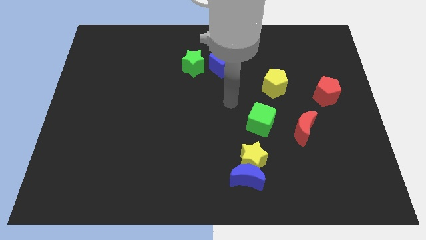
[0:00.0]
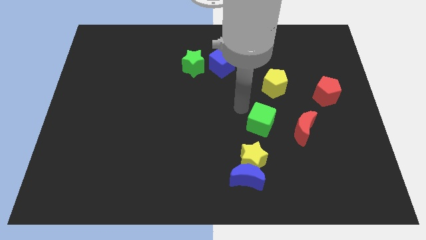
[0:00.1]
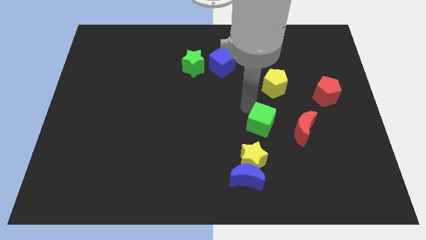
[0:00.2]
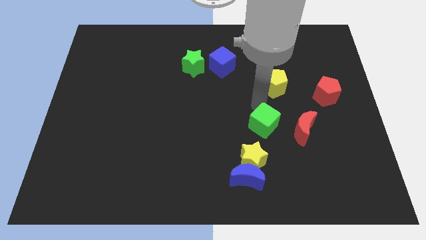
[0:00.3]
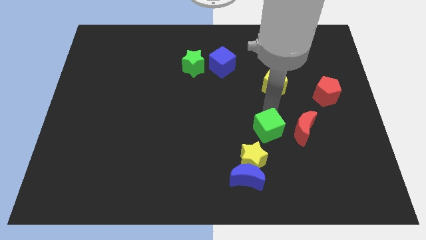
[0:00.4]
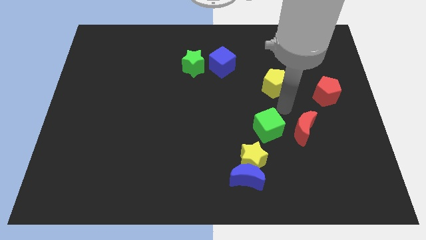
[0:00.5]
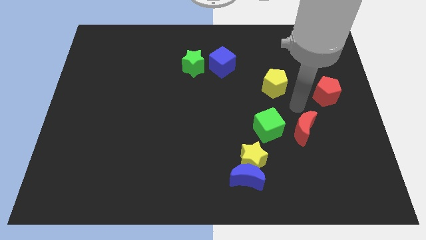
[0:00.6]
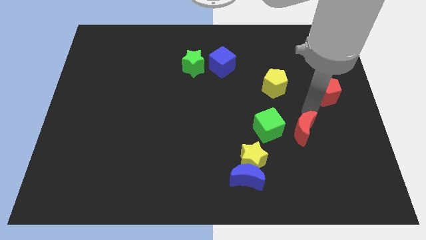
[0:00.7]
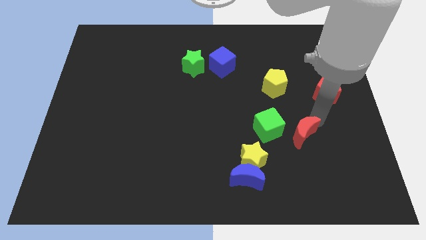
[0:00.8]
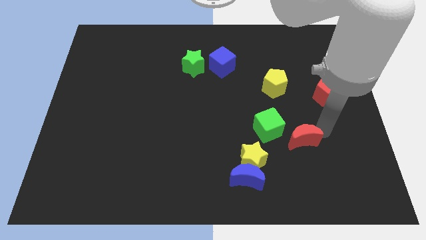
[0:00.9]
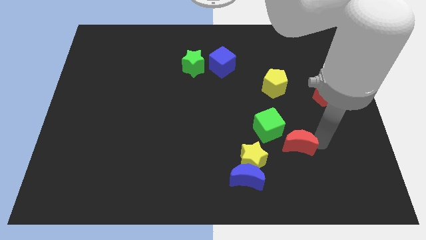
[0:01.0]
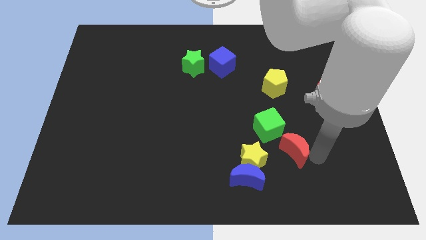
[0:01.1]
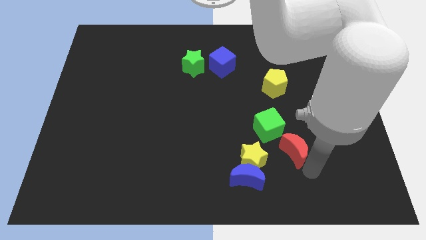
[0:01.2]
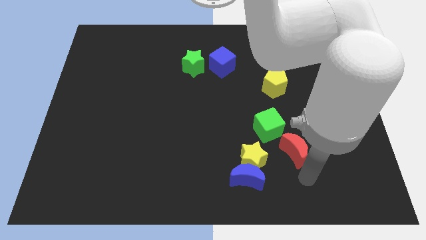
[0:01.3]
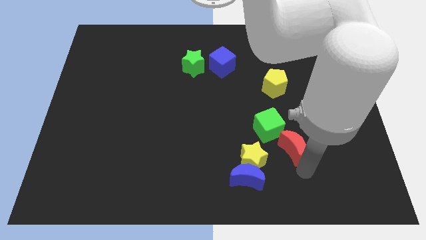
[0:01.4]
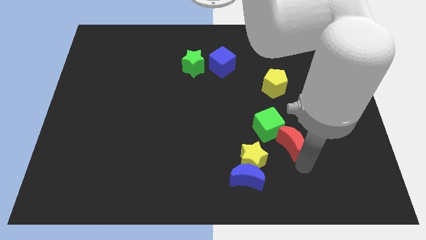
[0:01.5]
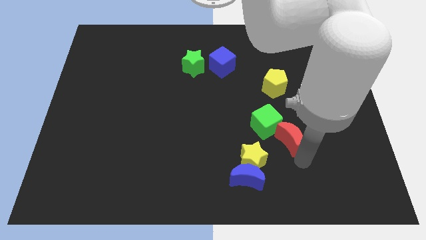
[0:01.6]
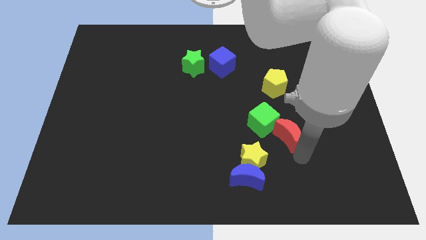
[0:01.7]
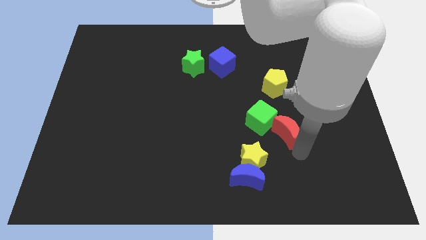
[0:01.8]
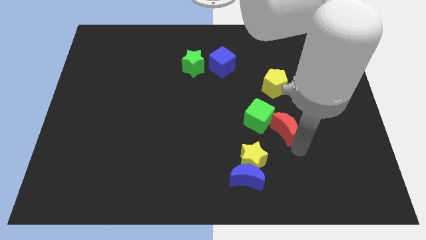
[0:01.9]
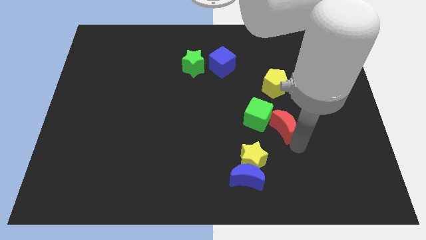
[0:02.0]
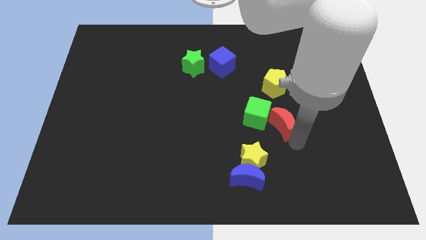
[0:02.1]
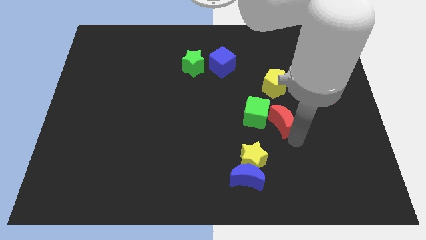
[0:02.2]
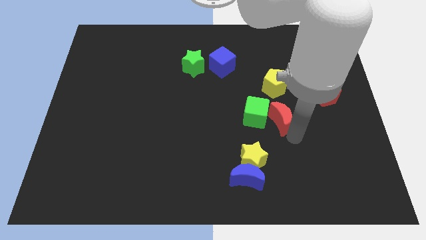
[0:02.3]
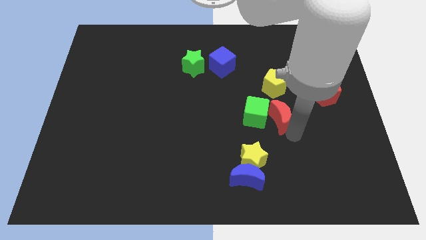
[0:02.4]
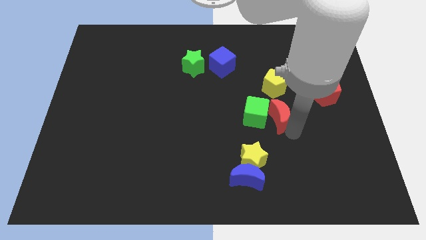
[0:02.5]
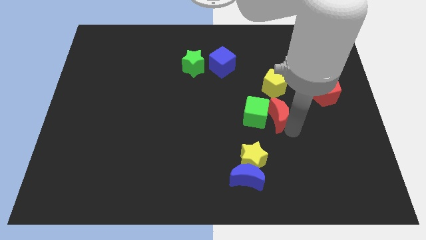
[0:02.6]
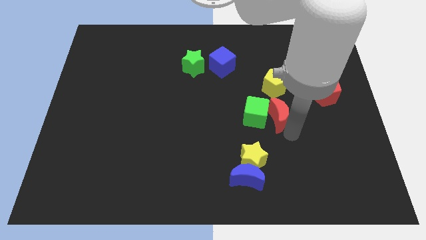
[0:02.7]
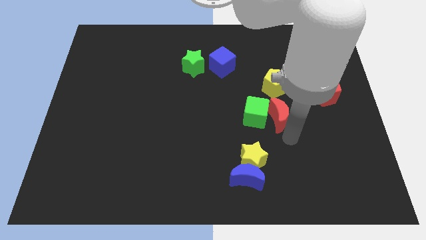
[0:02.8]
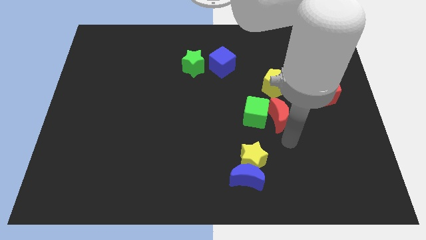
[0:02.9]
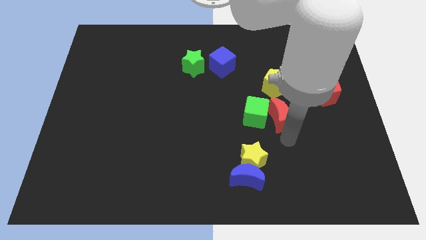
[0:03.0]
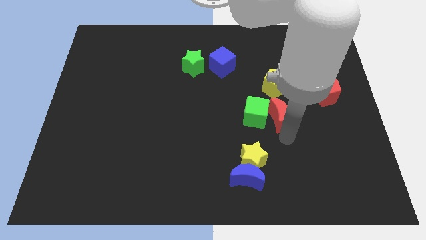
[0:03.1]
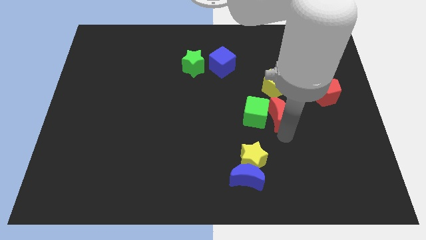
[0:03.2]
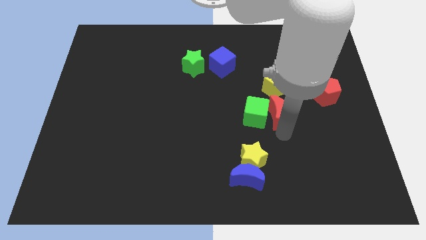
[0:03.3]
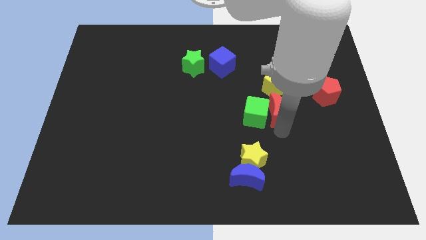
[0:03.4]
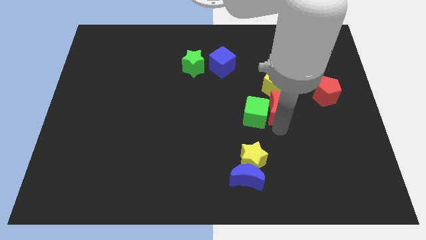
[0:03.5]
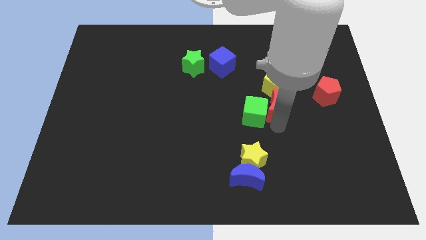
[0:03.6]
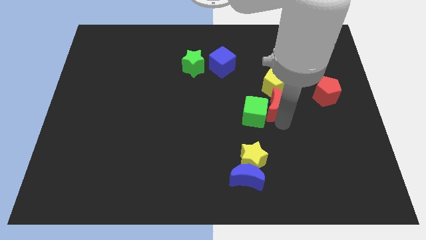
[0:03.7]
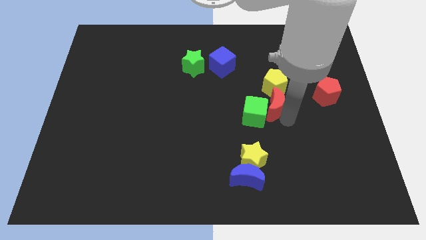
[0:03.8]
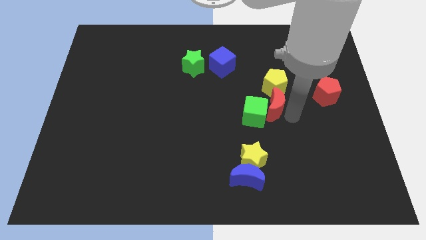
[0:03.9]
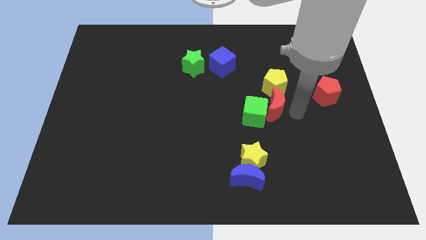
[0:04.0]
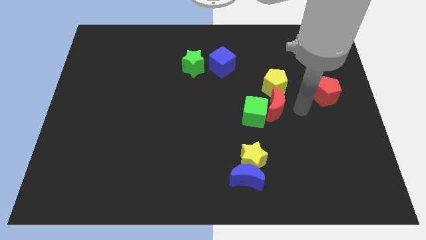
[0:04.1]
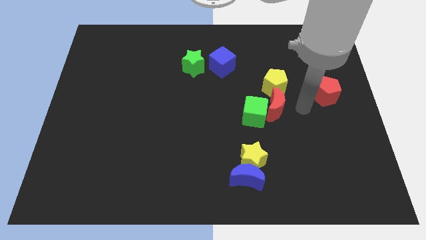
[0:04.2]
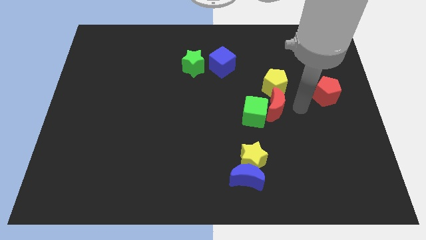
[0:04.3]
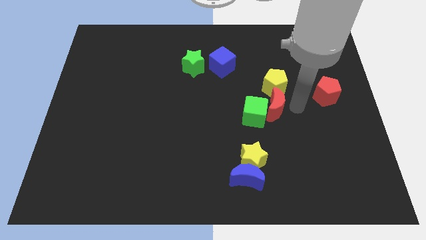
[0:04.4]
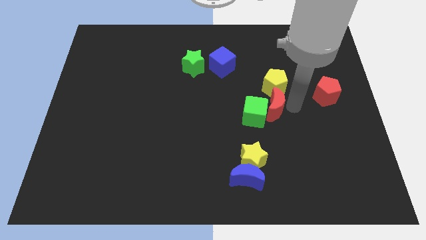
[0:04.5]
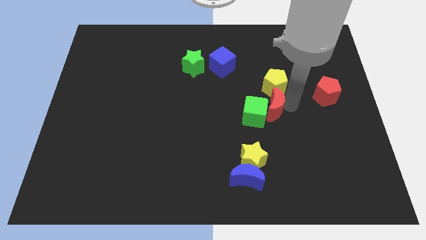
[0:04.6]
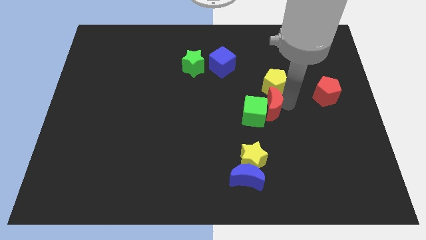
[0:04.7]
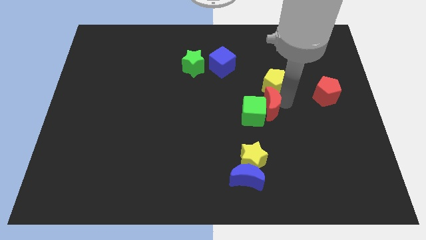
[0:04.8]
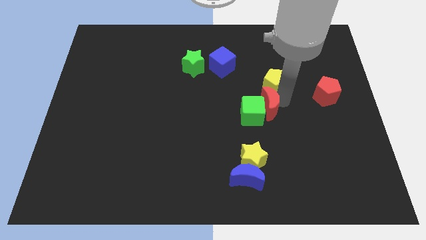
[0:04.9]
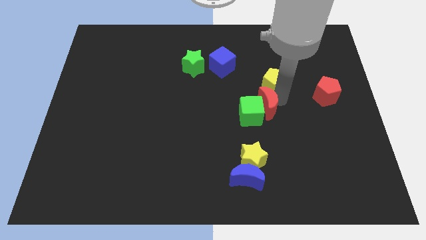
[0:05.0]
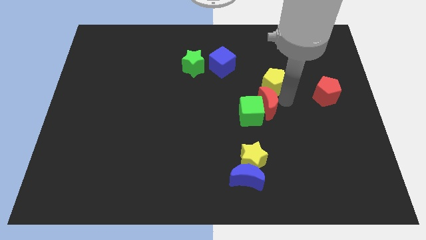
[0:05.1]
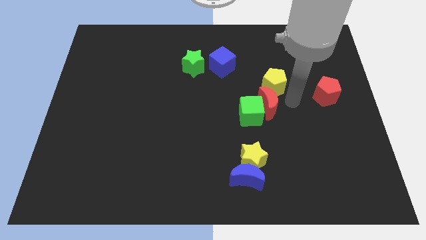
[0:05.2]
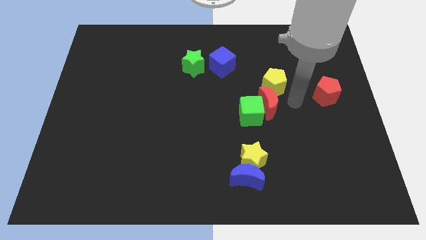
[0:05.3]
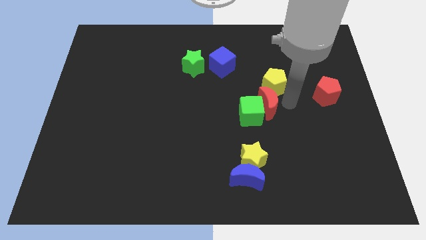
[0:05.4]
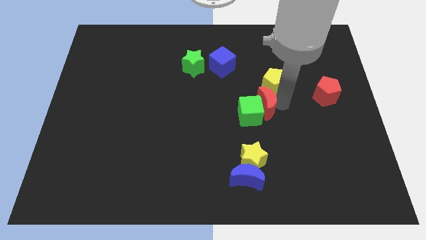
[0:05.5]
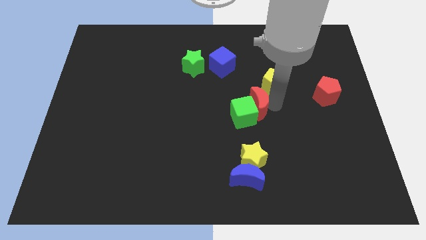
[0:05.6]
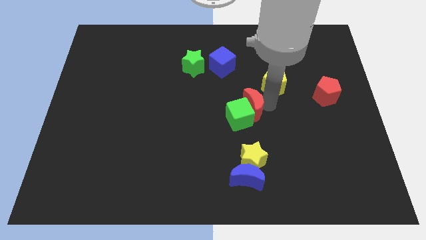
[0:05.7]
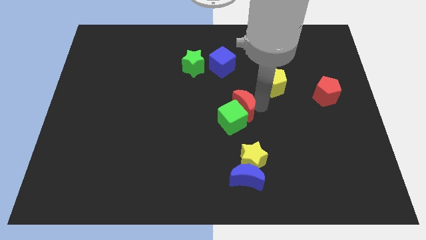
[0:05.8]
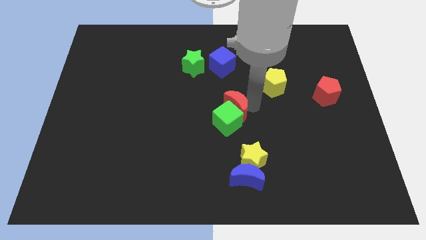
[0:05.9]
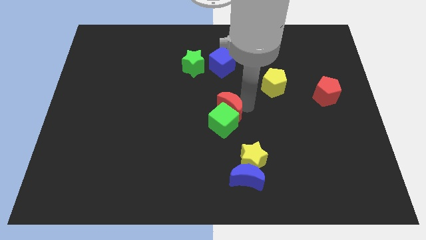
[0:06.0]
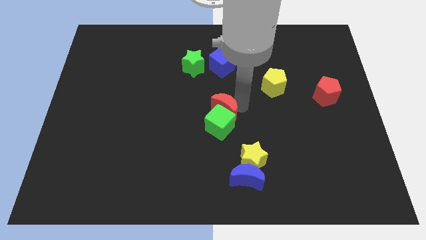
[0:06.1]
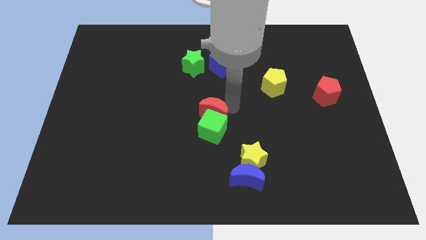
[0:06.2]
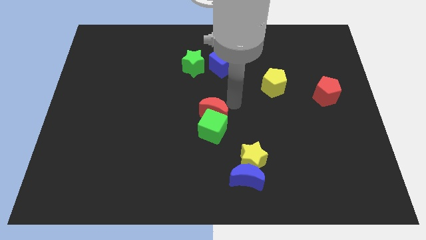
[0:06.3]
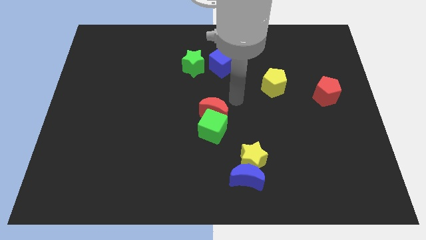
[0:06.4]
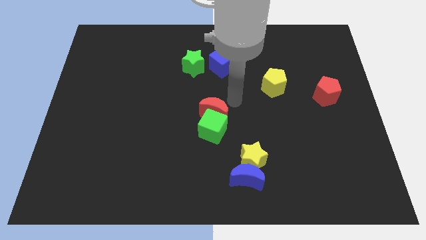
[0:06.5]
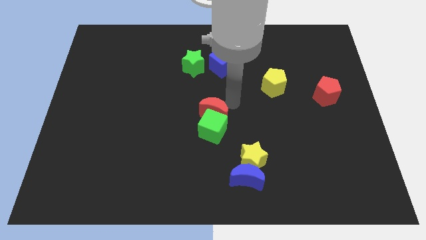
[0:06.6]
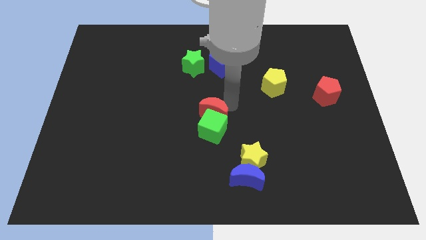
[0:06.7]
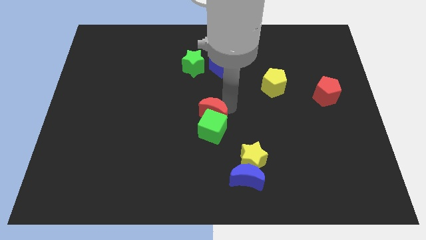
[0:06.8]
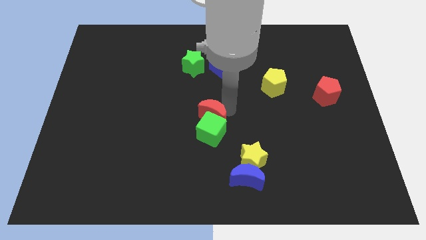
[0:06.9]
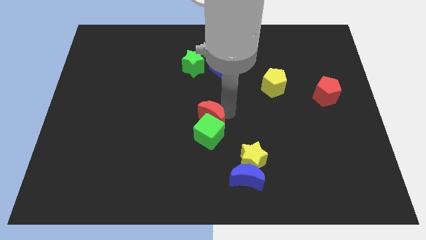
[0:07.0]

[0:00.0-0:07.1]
push the red moon to the left

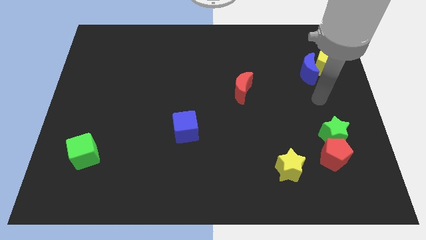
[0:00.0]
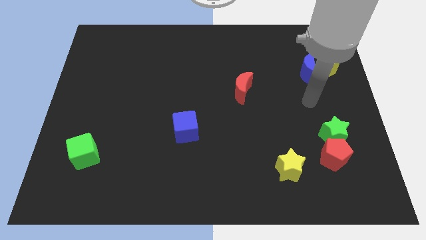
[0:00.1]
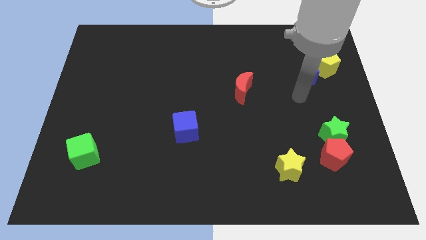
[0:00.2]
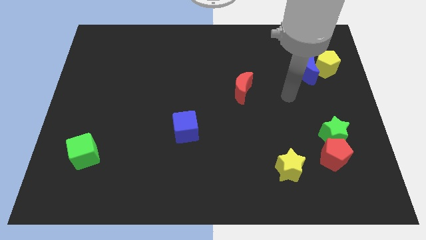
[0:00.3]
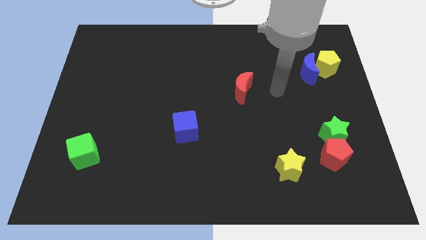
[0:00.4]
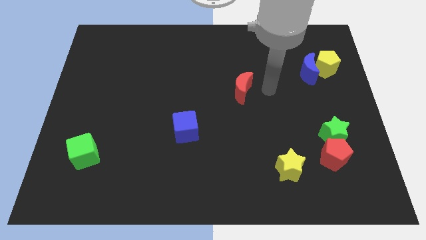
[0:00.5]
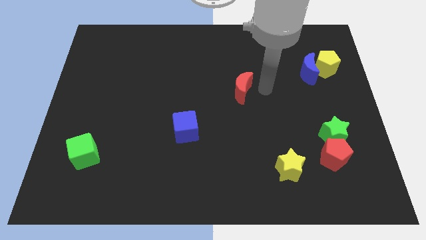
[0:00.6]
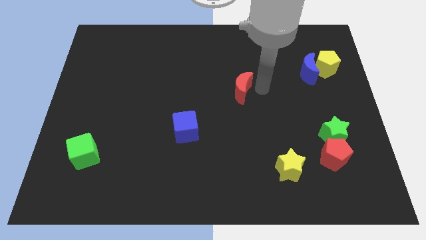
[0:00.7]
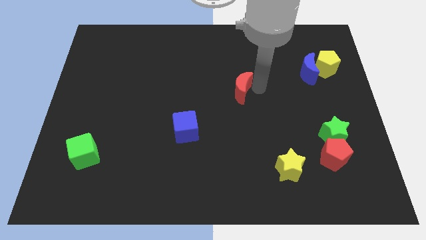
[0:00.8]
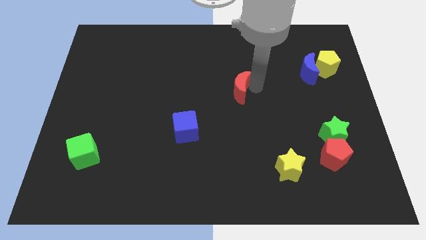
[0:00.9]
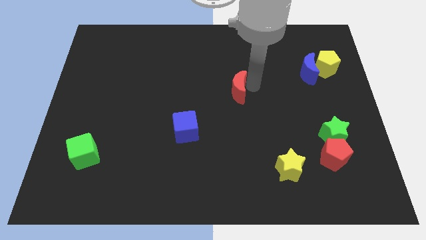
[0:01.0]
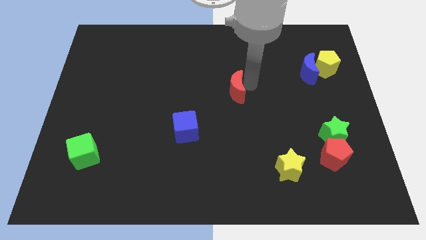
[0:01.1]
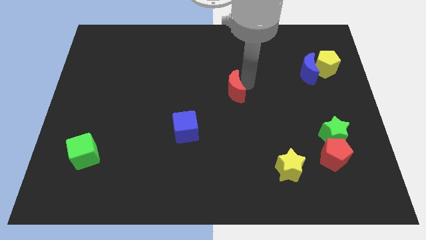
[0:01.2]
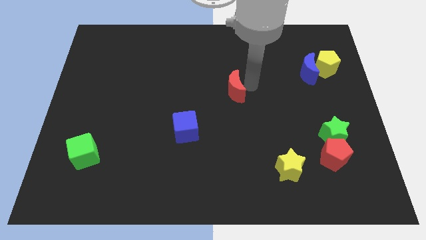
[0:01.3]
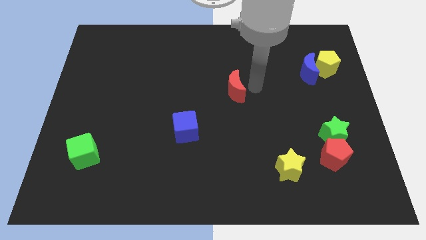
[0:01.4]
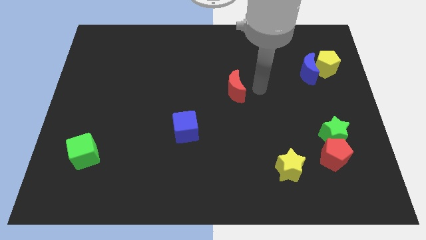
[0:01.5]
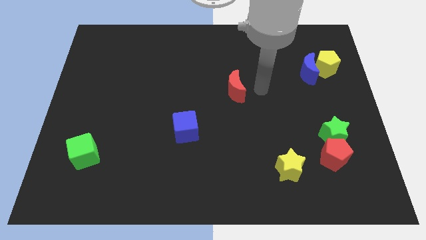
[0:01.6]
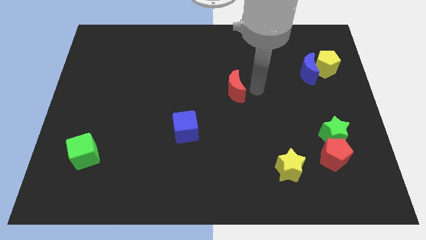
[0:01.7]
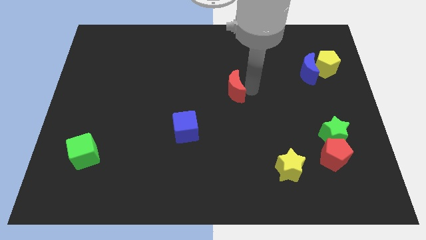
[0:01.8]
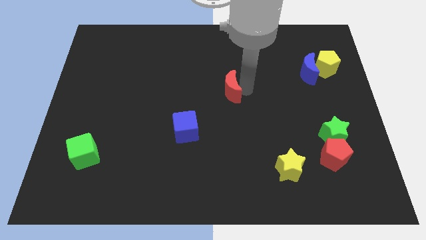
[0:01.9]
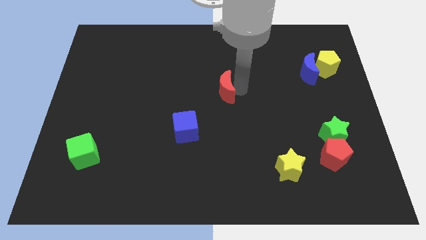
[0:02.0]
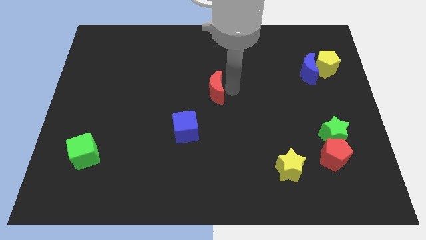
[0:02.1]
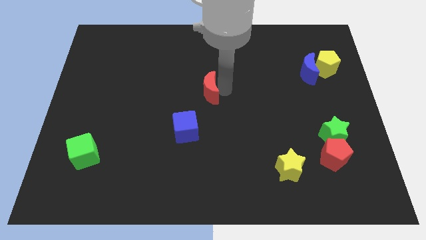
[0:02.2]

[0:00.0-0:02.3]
move the red moon left slightly
